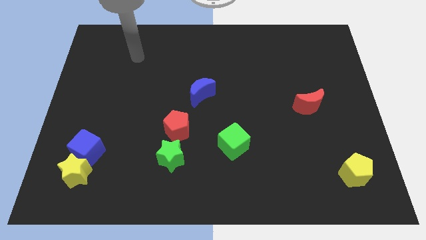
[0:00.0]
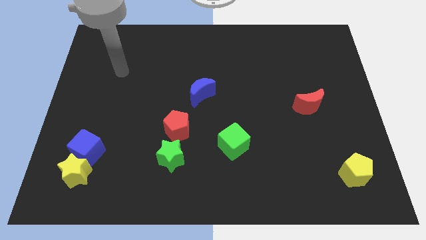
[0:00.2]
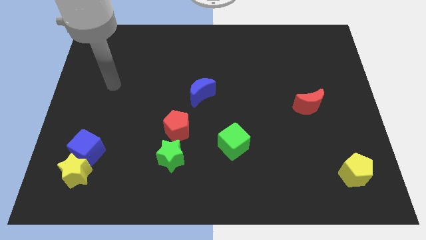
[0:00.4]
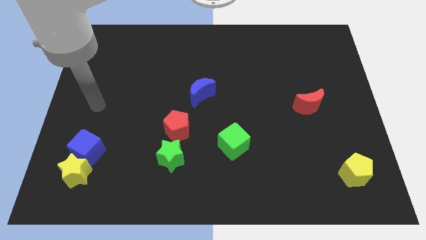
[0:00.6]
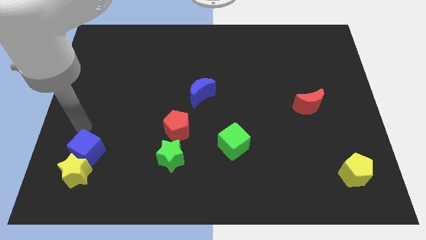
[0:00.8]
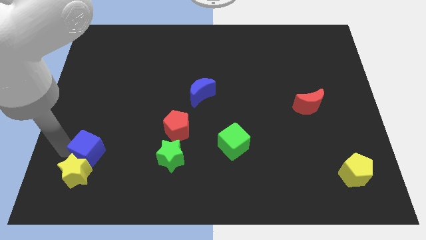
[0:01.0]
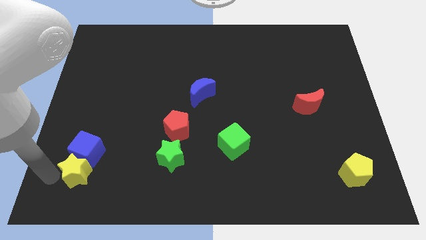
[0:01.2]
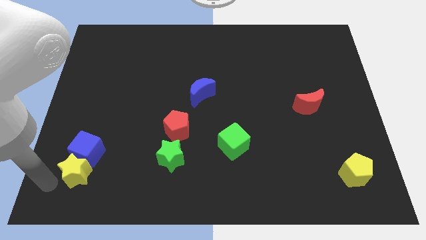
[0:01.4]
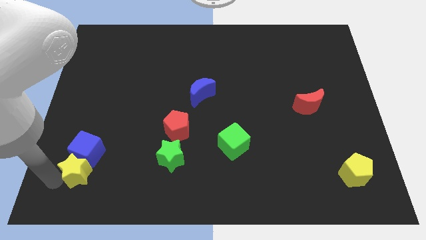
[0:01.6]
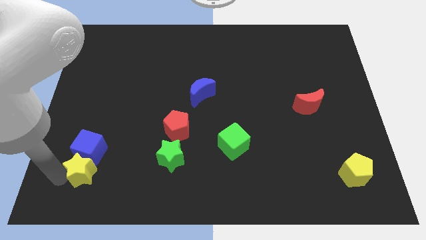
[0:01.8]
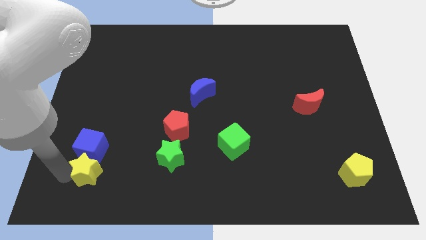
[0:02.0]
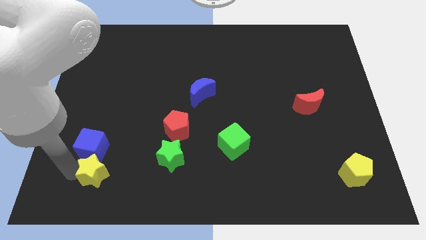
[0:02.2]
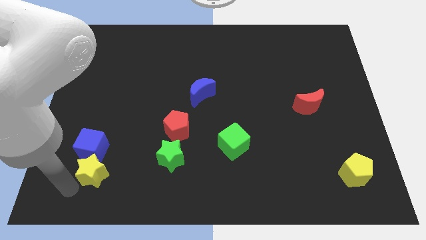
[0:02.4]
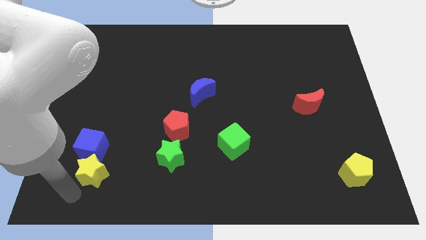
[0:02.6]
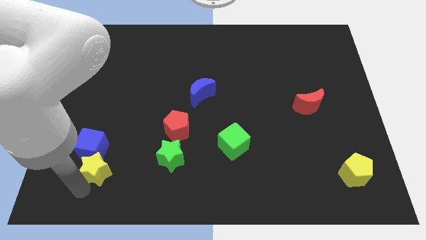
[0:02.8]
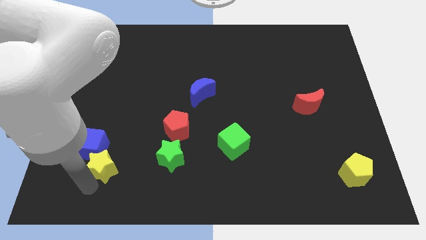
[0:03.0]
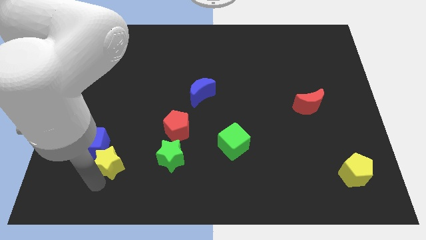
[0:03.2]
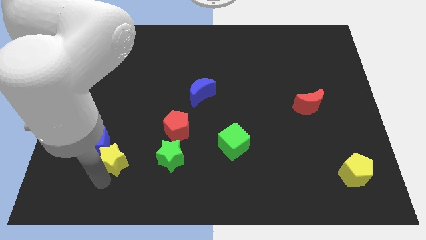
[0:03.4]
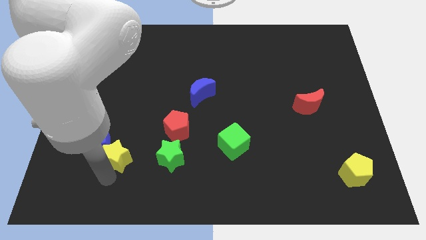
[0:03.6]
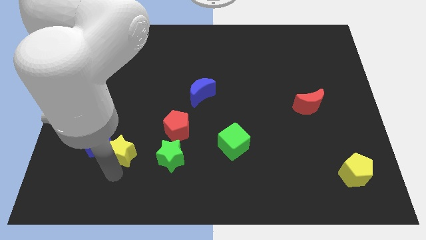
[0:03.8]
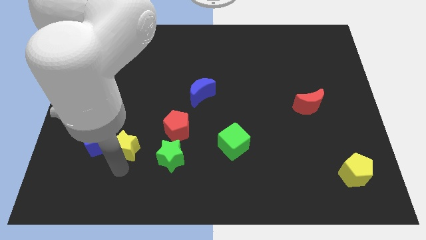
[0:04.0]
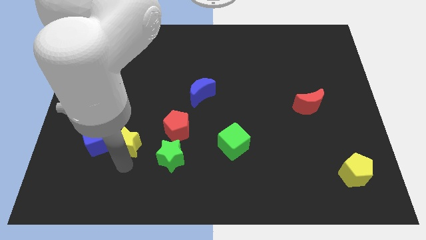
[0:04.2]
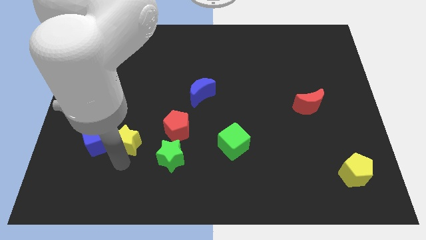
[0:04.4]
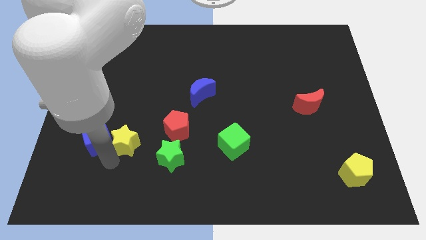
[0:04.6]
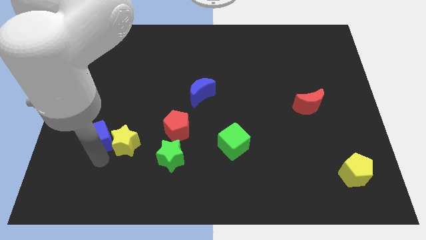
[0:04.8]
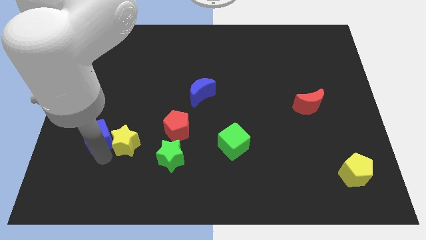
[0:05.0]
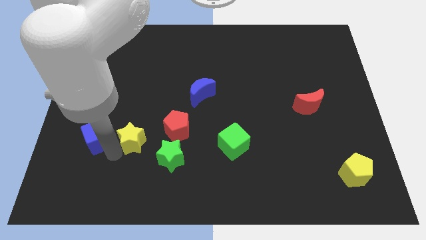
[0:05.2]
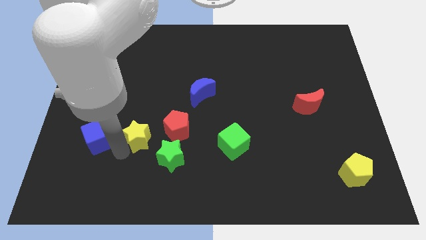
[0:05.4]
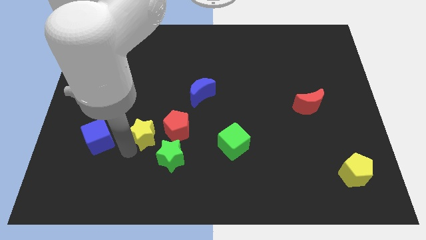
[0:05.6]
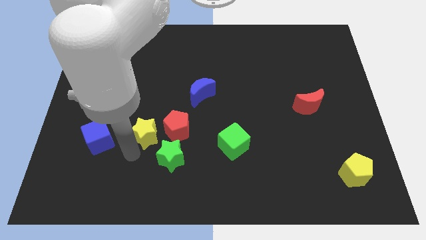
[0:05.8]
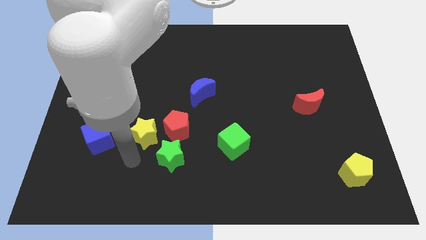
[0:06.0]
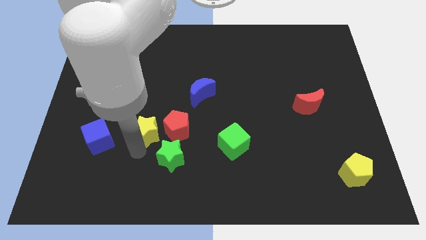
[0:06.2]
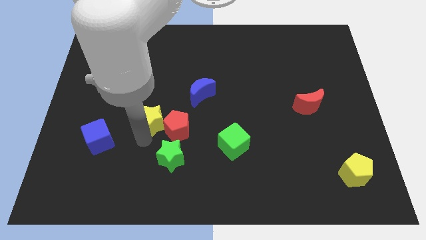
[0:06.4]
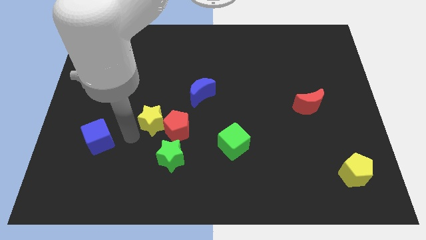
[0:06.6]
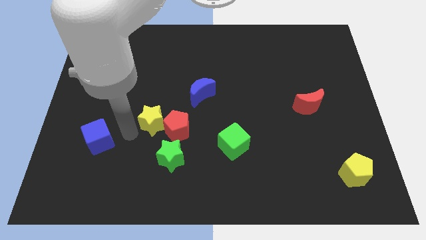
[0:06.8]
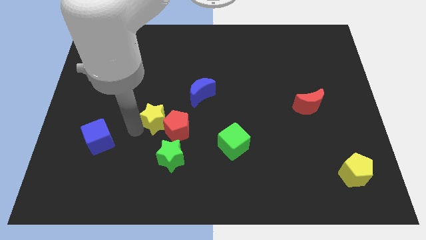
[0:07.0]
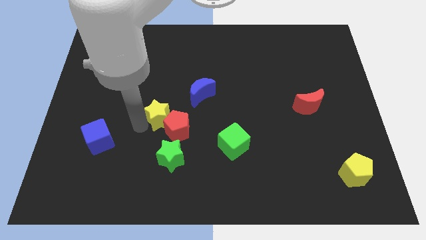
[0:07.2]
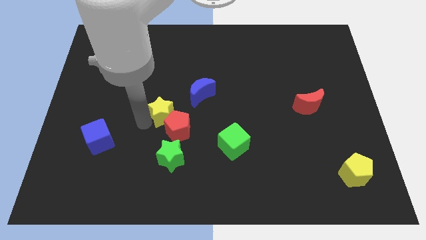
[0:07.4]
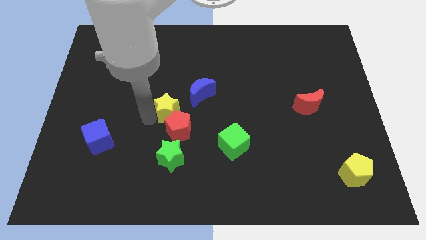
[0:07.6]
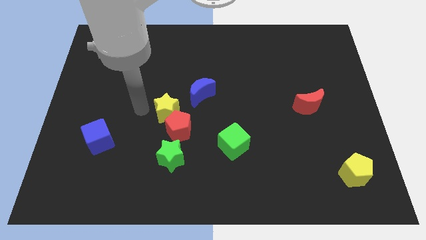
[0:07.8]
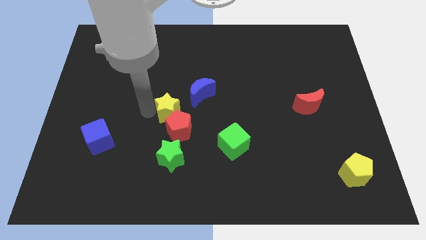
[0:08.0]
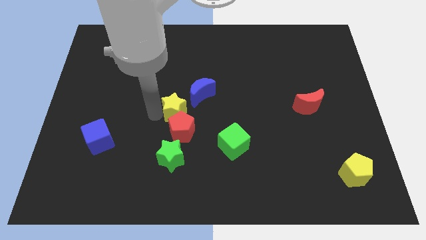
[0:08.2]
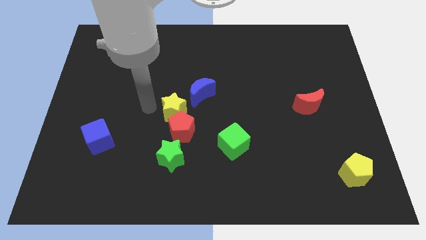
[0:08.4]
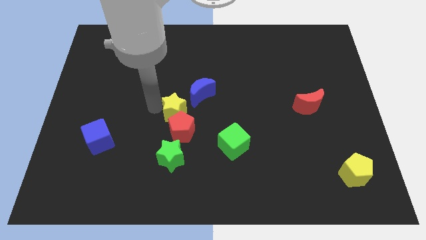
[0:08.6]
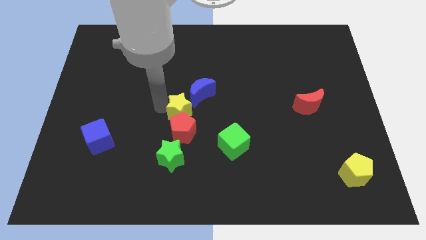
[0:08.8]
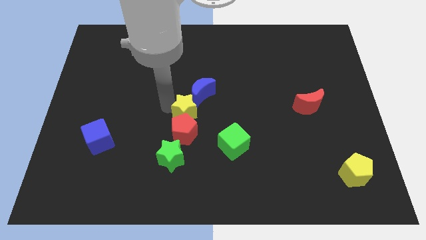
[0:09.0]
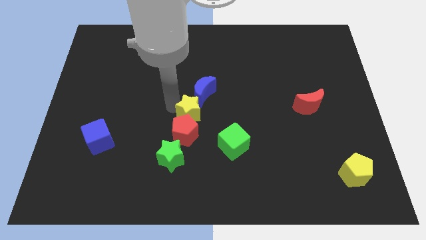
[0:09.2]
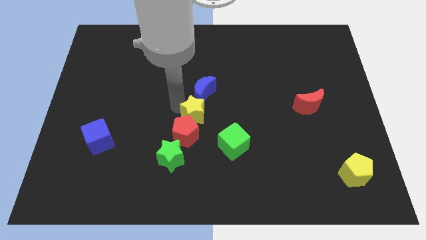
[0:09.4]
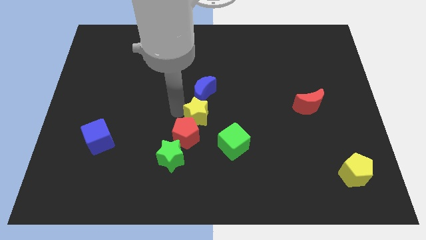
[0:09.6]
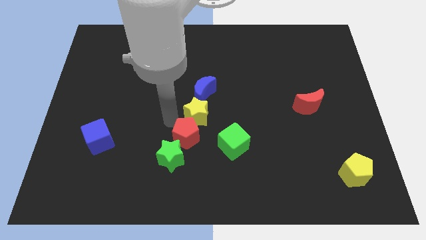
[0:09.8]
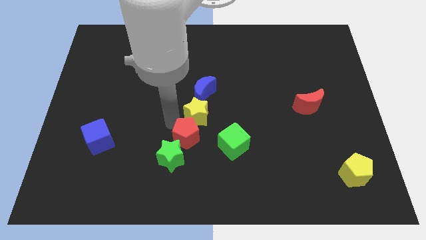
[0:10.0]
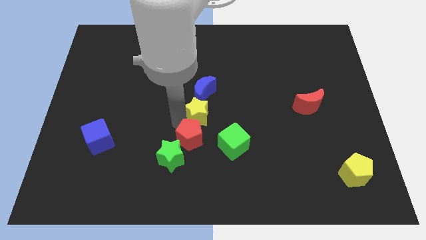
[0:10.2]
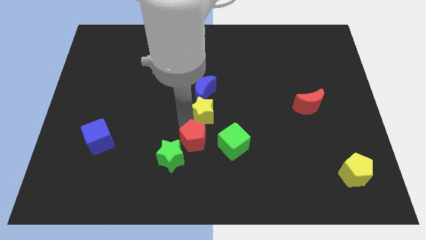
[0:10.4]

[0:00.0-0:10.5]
put the yellow star to the bottom right of the blue moon

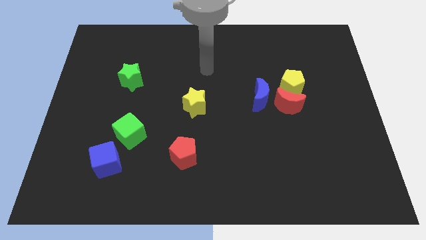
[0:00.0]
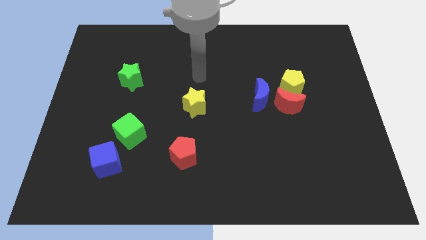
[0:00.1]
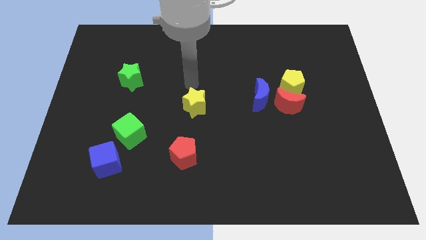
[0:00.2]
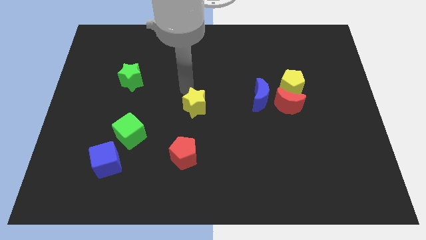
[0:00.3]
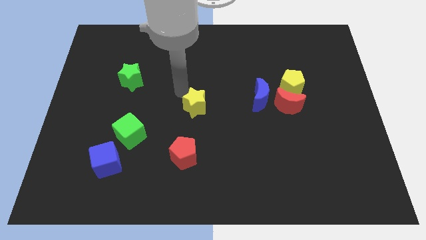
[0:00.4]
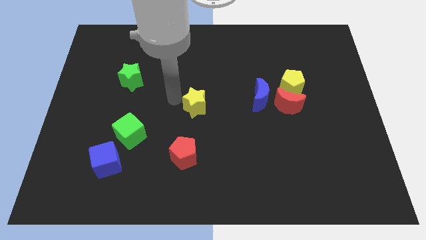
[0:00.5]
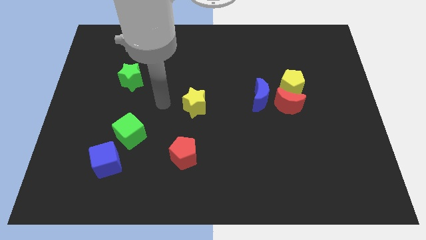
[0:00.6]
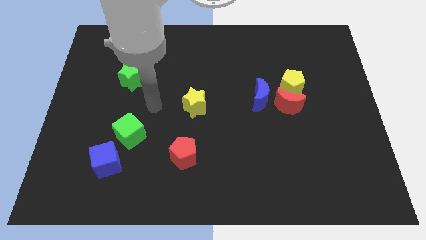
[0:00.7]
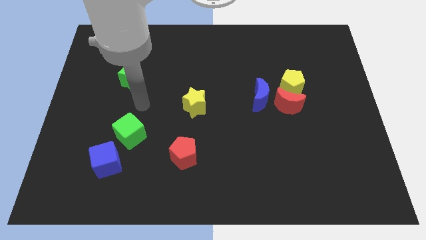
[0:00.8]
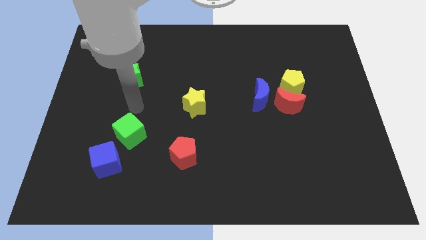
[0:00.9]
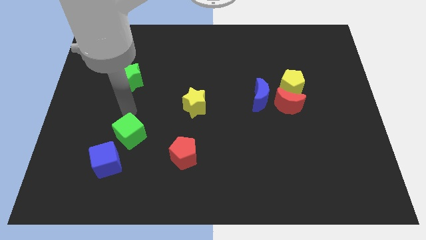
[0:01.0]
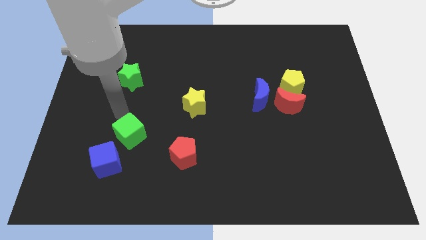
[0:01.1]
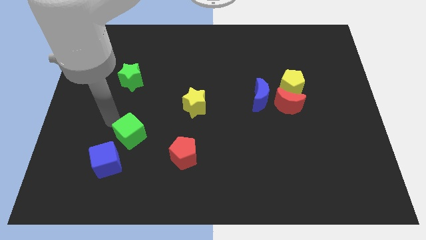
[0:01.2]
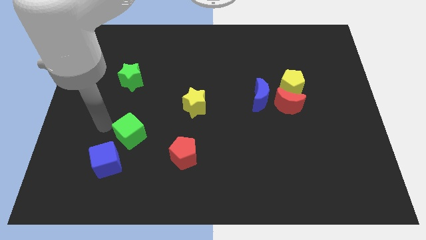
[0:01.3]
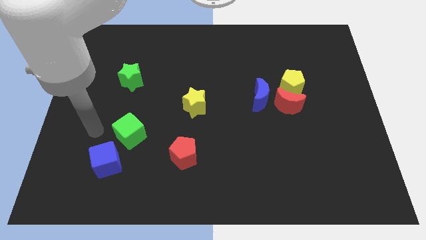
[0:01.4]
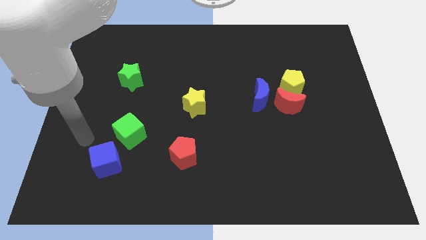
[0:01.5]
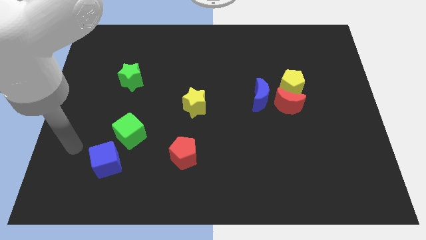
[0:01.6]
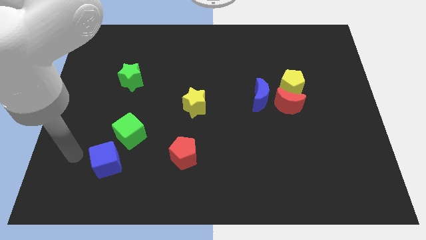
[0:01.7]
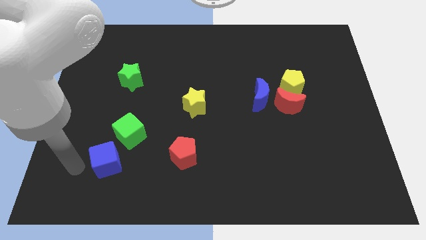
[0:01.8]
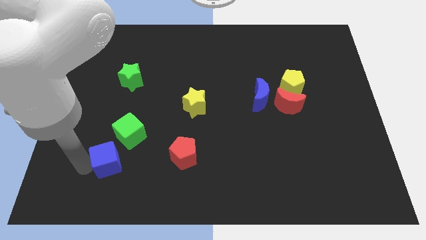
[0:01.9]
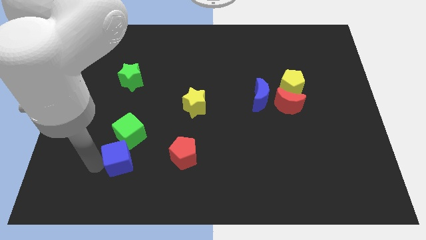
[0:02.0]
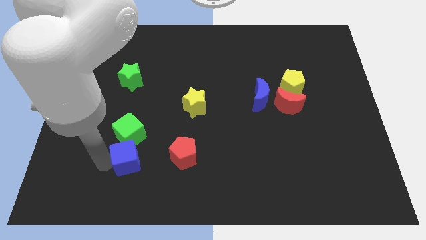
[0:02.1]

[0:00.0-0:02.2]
put the blue cube diagonally down and to the right of the green cube
